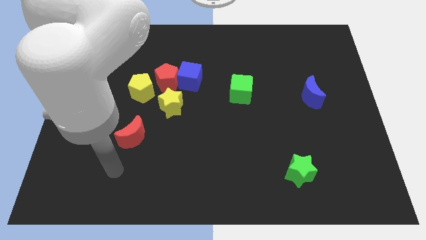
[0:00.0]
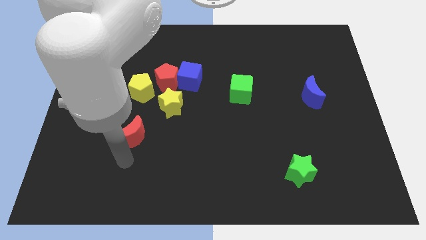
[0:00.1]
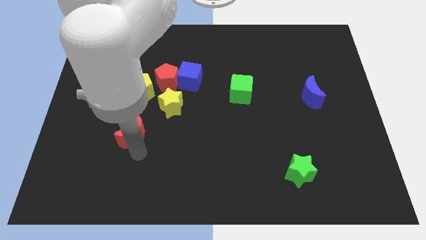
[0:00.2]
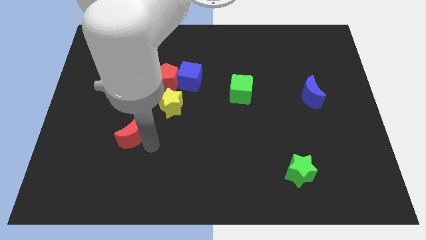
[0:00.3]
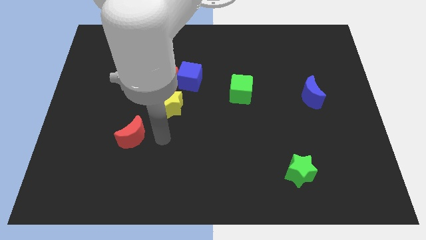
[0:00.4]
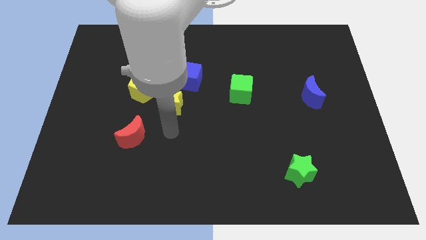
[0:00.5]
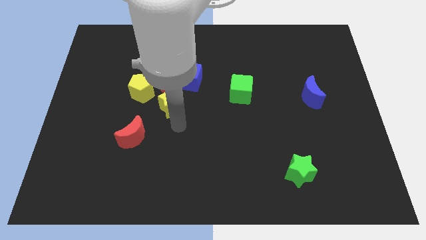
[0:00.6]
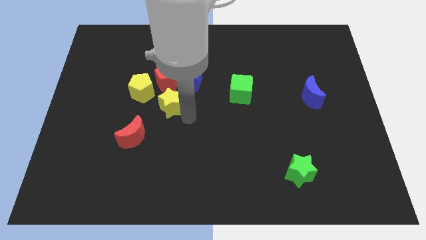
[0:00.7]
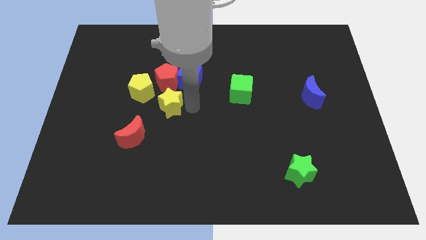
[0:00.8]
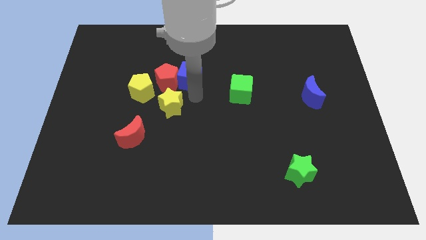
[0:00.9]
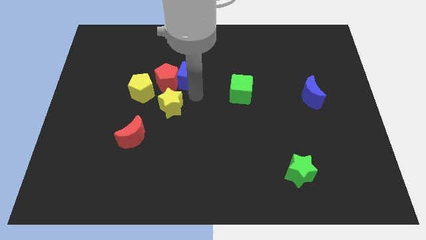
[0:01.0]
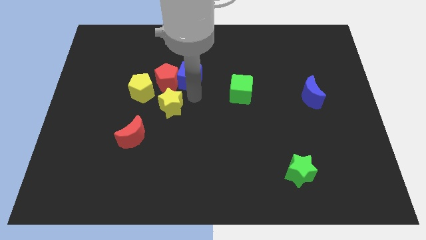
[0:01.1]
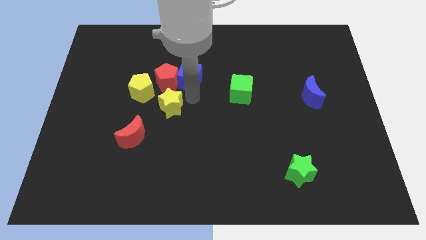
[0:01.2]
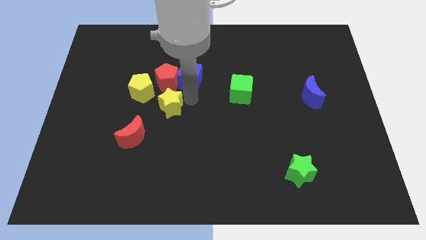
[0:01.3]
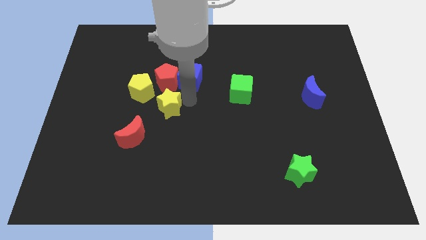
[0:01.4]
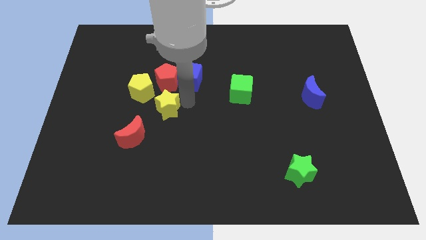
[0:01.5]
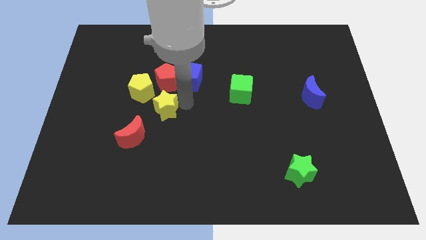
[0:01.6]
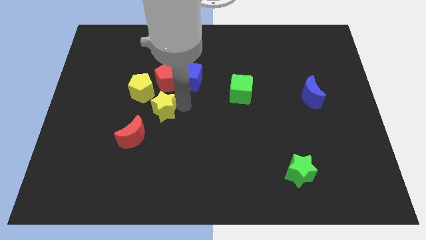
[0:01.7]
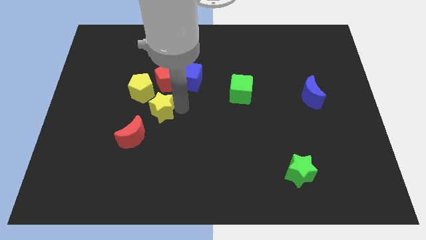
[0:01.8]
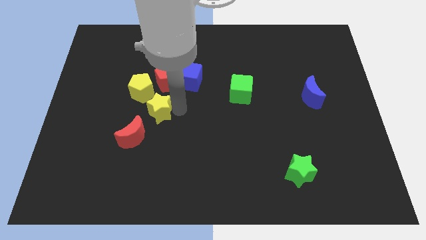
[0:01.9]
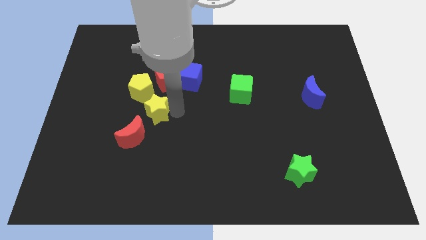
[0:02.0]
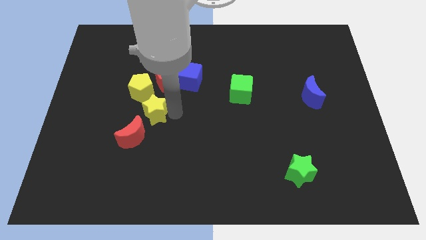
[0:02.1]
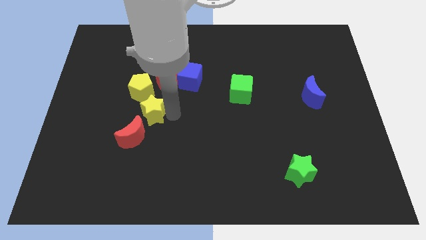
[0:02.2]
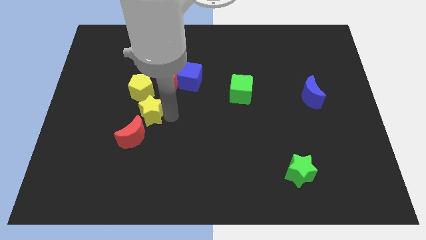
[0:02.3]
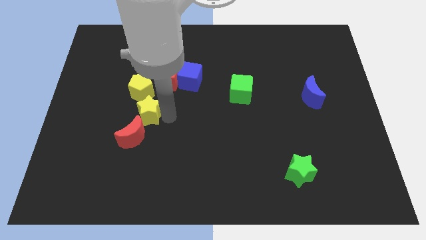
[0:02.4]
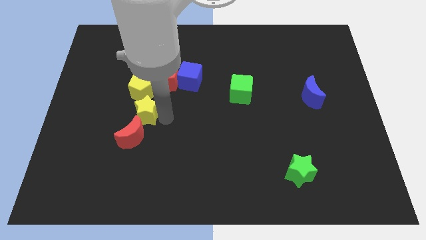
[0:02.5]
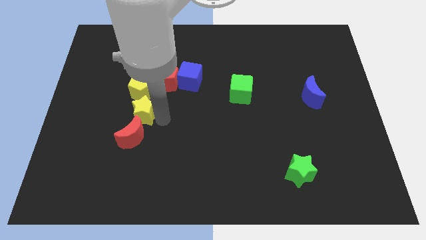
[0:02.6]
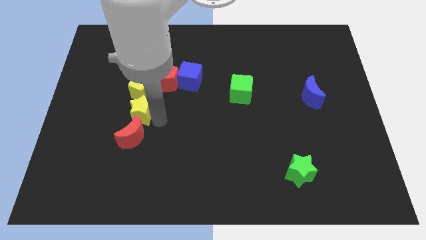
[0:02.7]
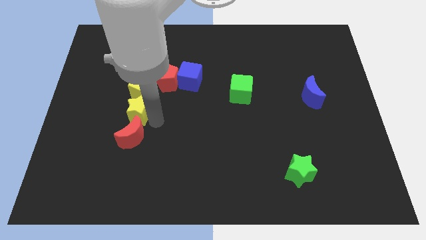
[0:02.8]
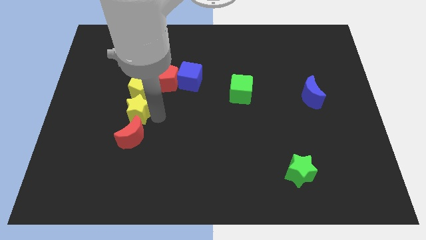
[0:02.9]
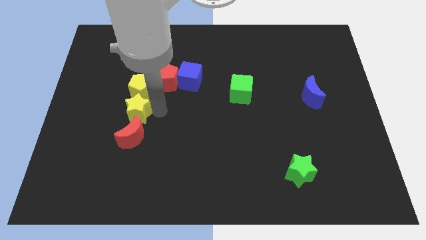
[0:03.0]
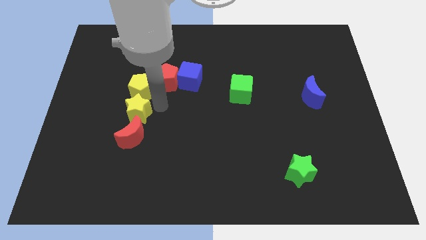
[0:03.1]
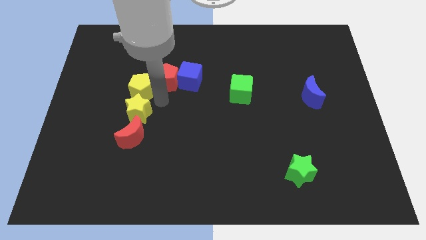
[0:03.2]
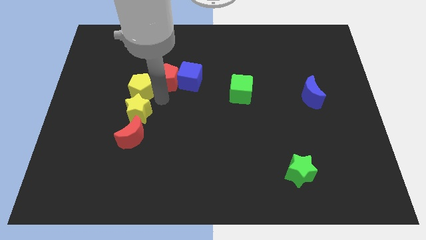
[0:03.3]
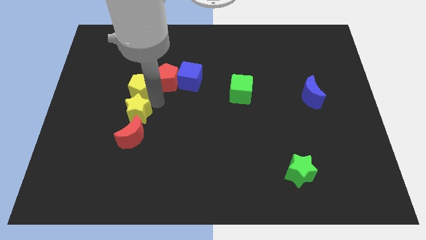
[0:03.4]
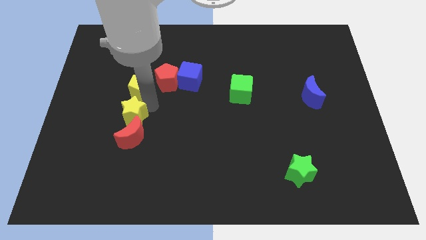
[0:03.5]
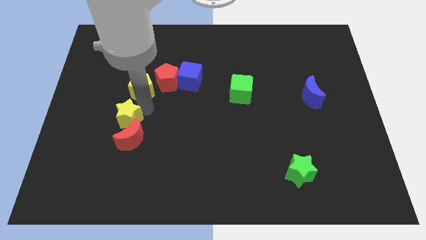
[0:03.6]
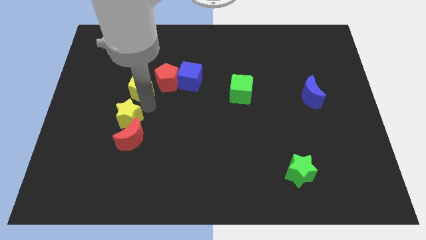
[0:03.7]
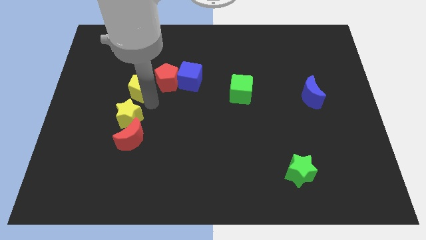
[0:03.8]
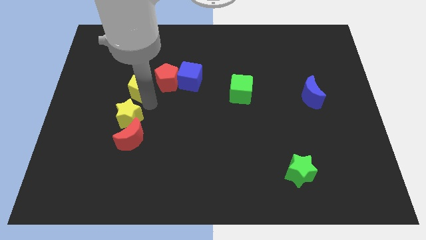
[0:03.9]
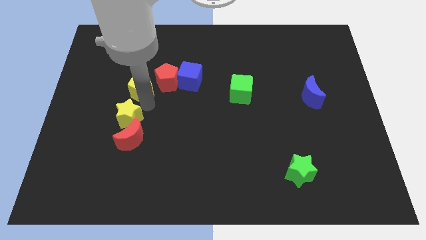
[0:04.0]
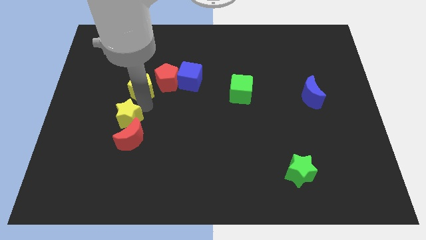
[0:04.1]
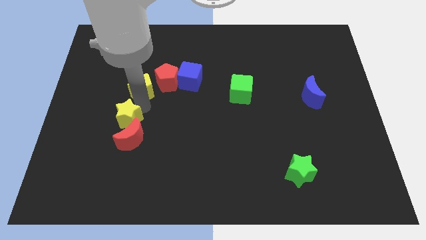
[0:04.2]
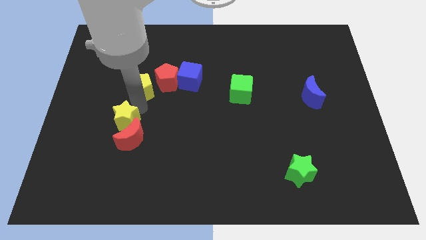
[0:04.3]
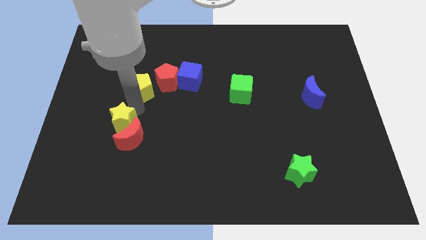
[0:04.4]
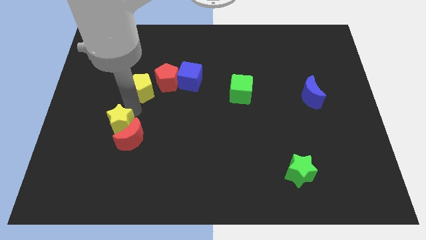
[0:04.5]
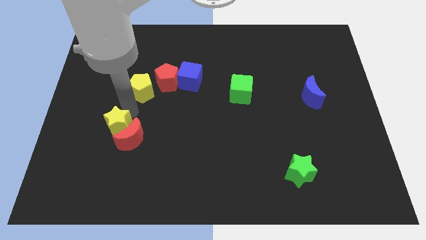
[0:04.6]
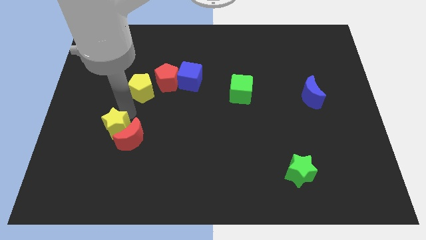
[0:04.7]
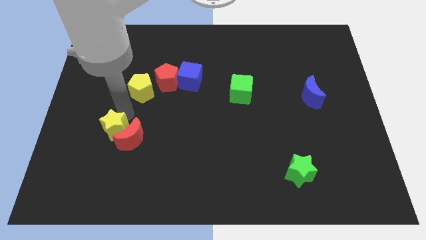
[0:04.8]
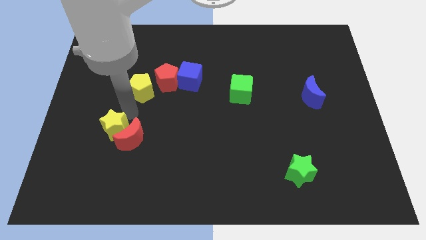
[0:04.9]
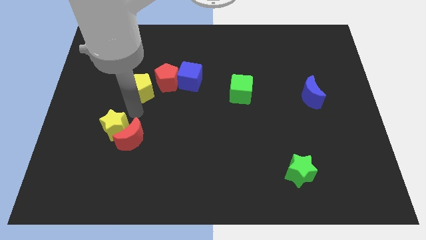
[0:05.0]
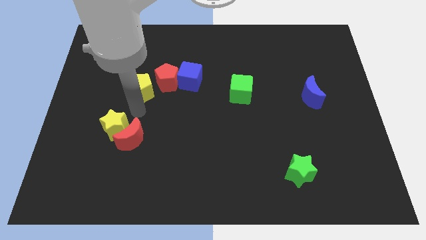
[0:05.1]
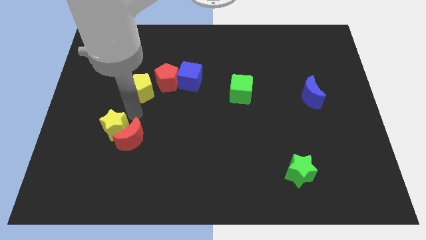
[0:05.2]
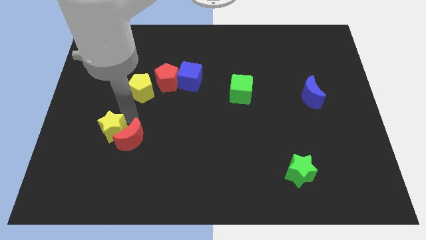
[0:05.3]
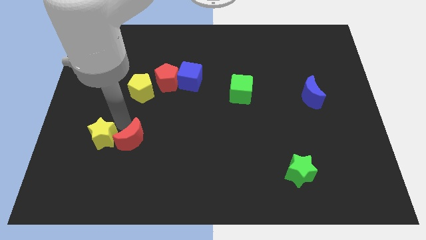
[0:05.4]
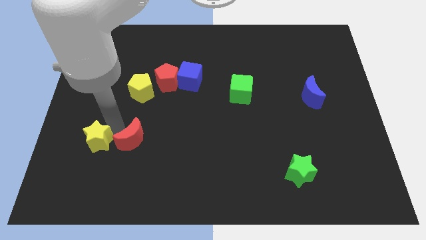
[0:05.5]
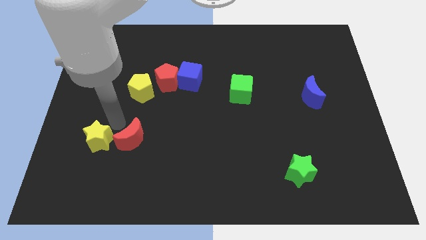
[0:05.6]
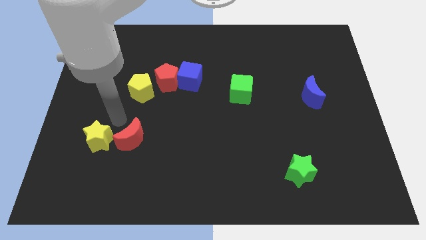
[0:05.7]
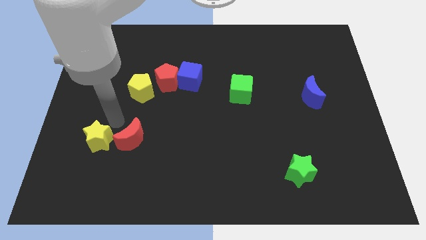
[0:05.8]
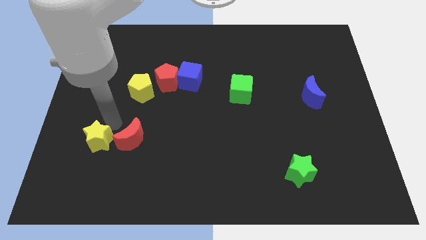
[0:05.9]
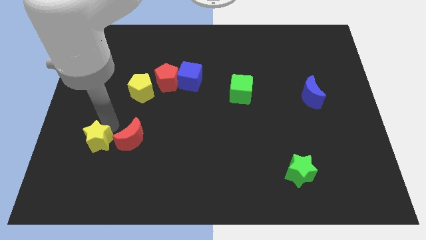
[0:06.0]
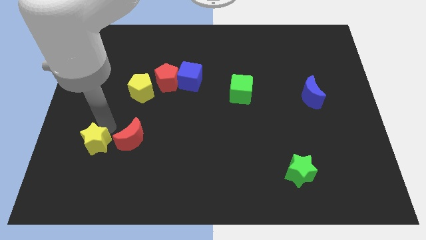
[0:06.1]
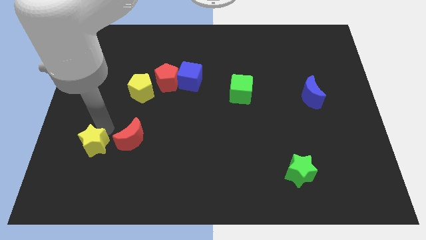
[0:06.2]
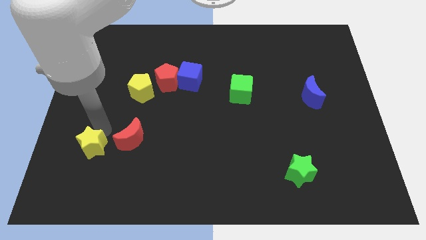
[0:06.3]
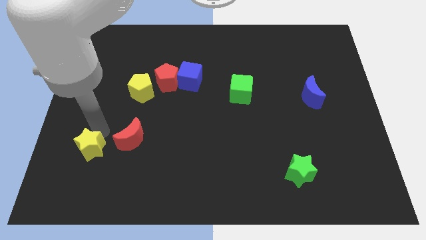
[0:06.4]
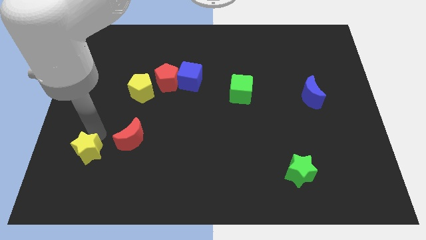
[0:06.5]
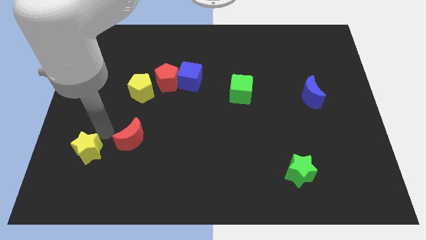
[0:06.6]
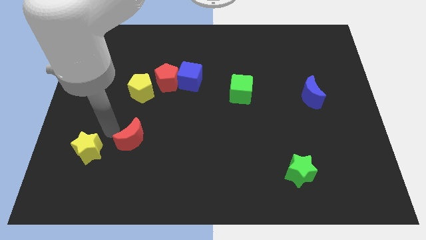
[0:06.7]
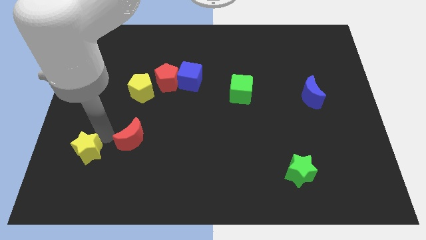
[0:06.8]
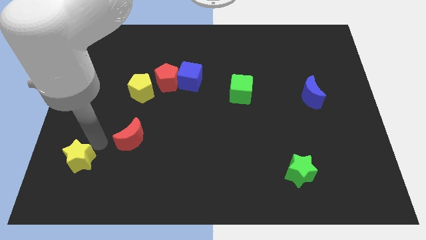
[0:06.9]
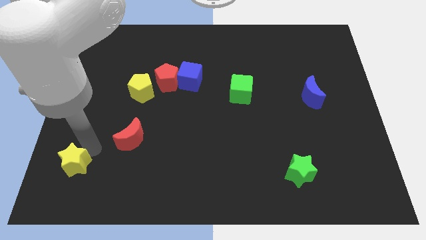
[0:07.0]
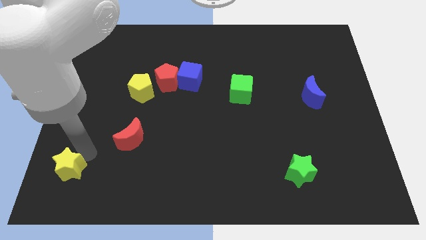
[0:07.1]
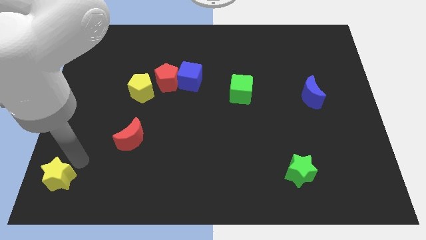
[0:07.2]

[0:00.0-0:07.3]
move the yellow star to the bottom left corner
